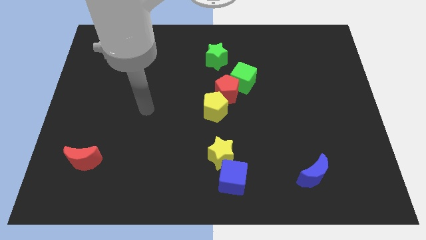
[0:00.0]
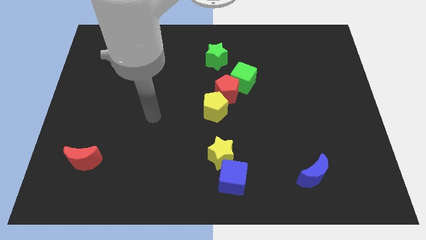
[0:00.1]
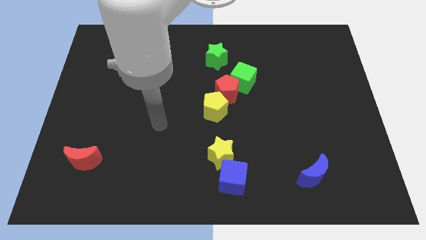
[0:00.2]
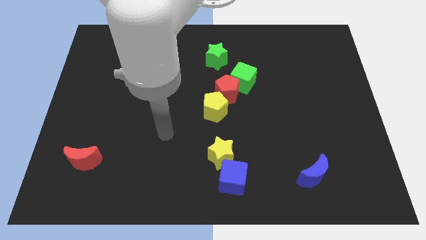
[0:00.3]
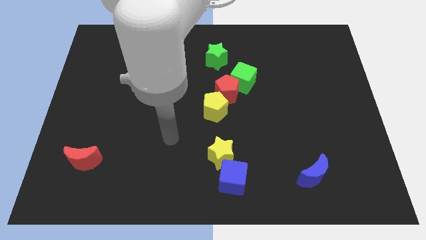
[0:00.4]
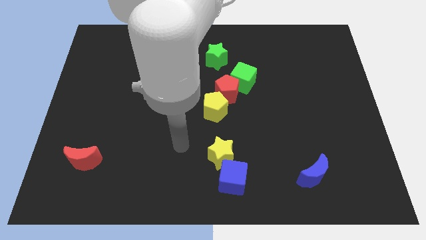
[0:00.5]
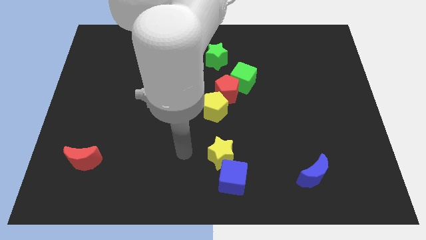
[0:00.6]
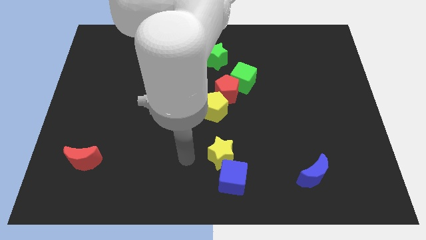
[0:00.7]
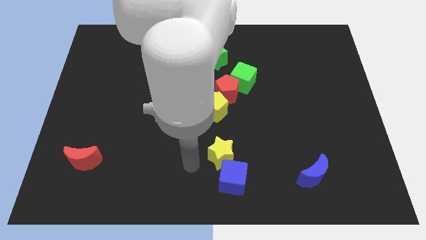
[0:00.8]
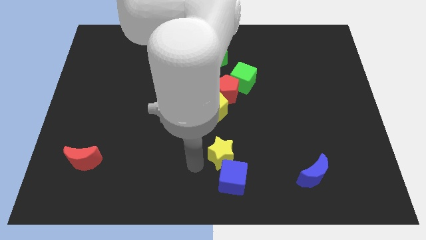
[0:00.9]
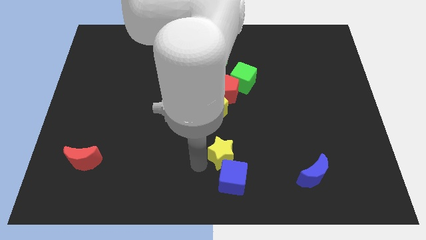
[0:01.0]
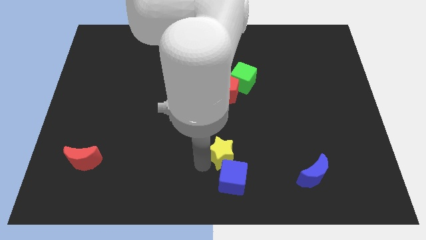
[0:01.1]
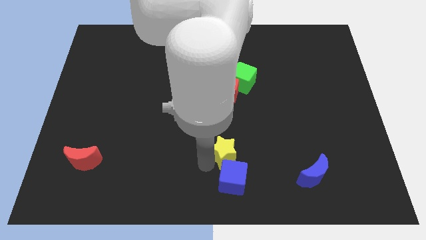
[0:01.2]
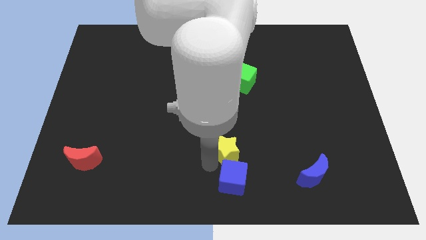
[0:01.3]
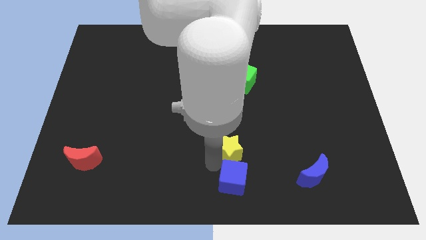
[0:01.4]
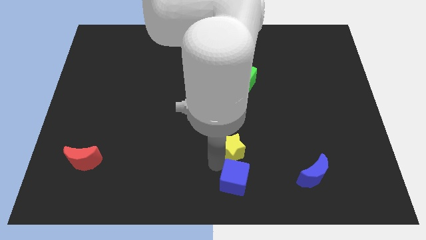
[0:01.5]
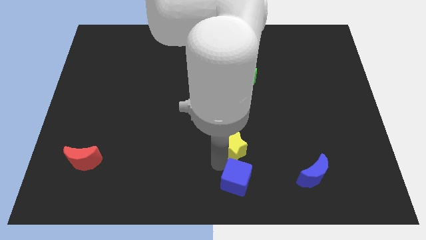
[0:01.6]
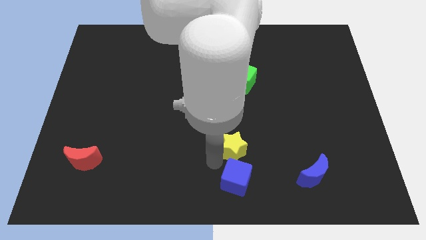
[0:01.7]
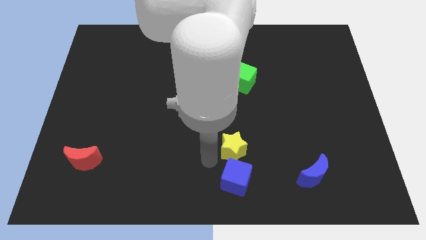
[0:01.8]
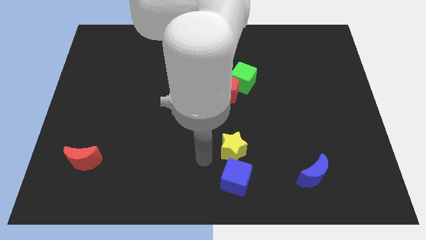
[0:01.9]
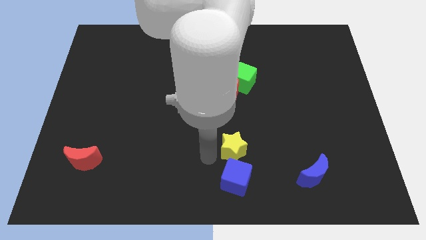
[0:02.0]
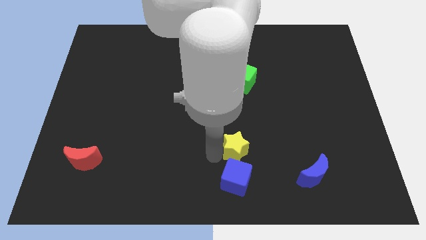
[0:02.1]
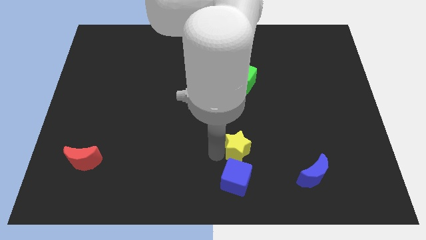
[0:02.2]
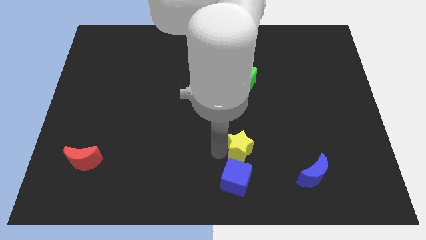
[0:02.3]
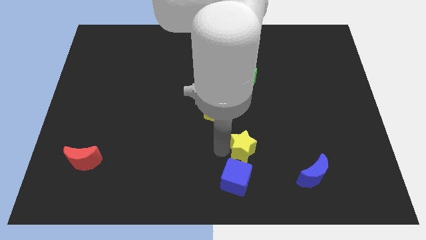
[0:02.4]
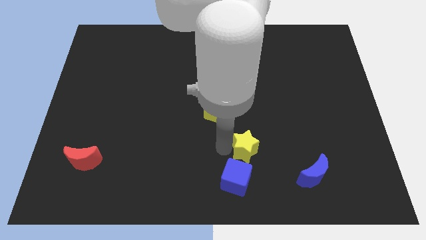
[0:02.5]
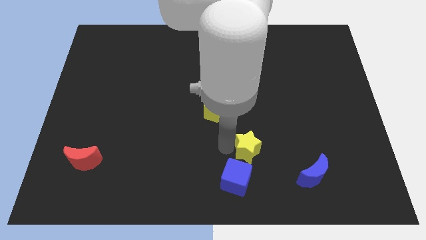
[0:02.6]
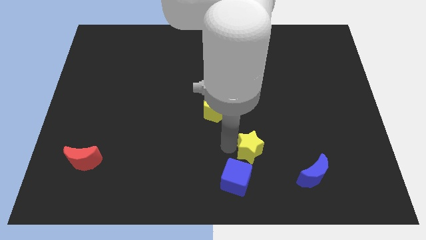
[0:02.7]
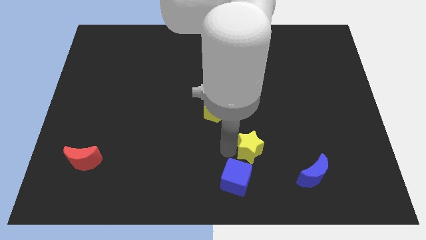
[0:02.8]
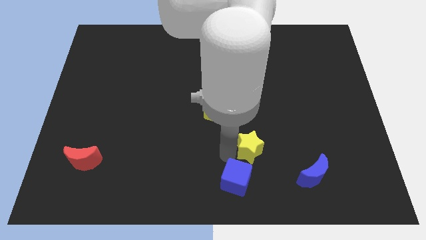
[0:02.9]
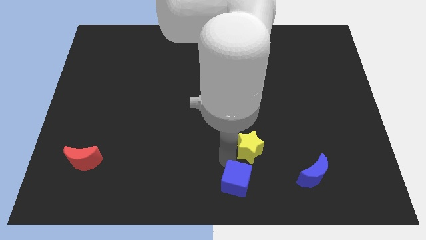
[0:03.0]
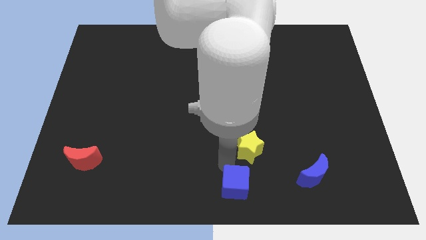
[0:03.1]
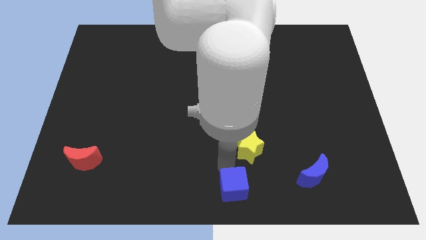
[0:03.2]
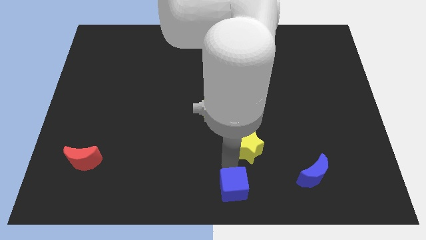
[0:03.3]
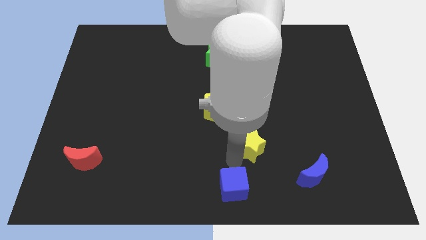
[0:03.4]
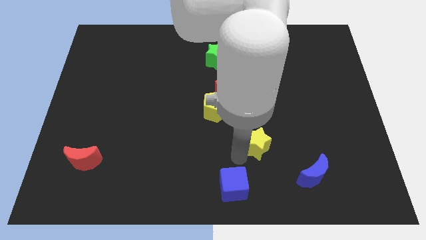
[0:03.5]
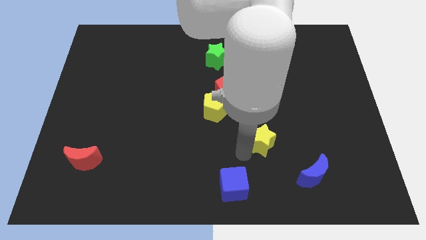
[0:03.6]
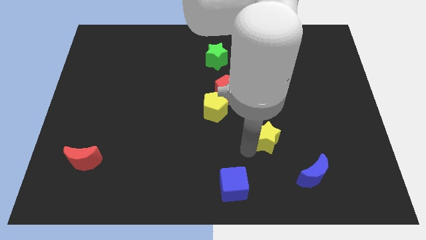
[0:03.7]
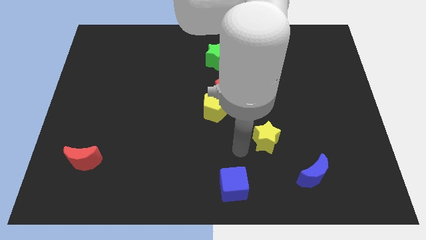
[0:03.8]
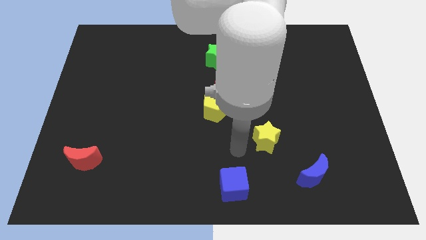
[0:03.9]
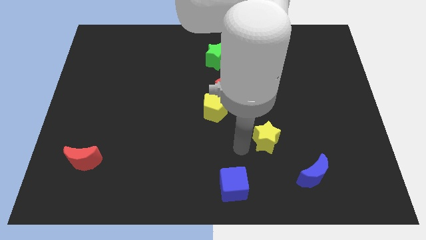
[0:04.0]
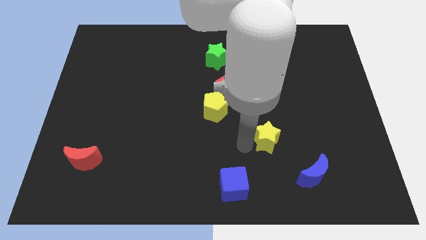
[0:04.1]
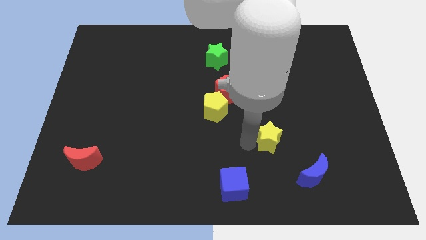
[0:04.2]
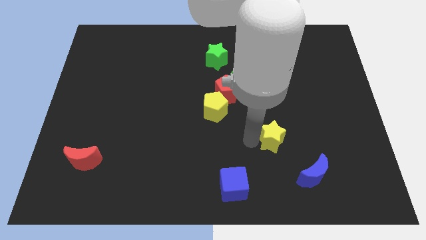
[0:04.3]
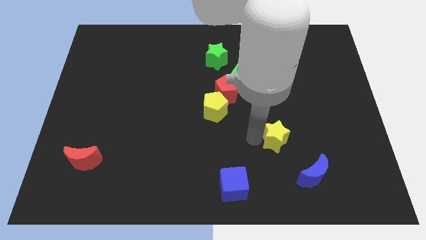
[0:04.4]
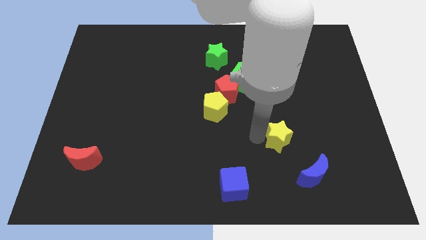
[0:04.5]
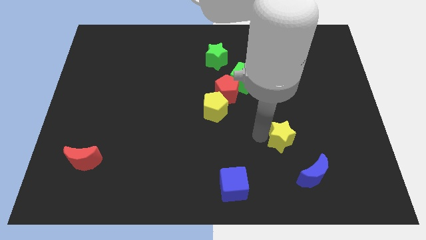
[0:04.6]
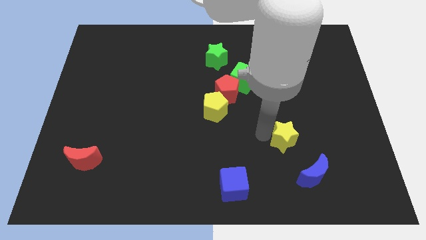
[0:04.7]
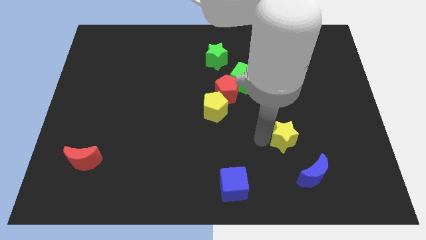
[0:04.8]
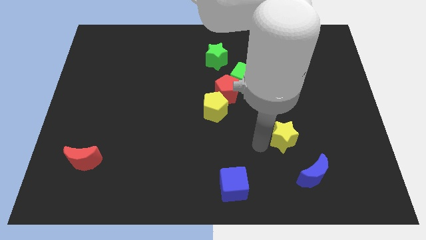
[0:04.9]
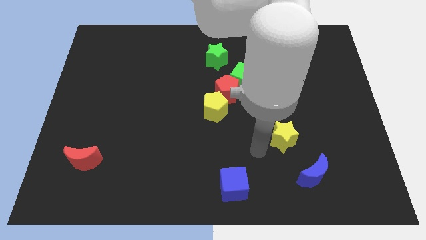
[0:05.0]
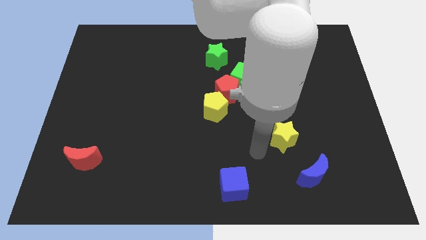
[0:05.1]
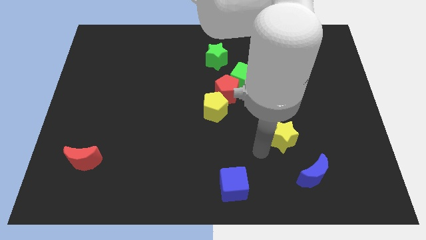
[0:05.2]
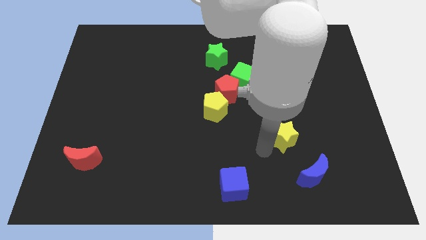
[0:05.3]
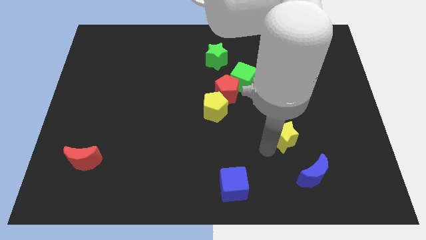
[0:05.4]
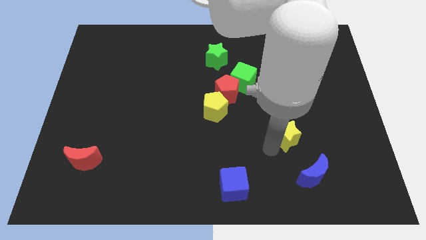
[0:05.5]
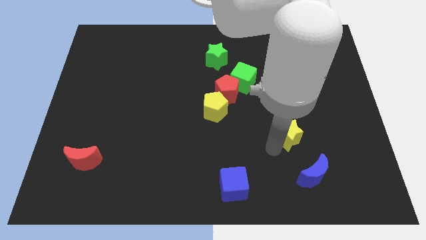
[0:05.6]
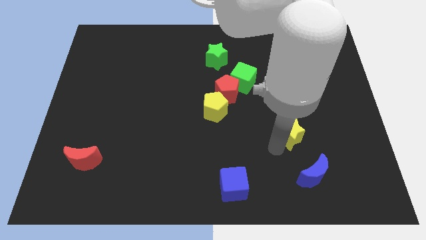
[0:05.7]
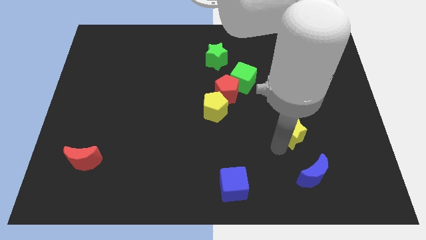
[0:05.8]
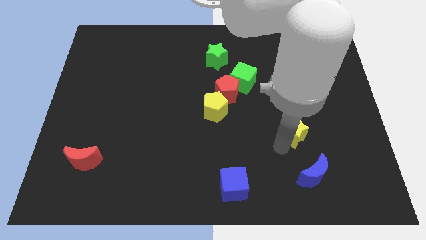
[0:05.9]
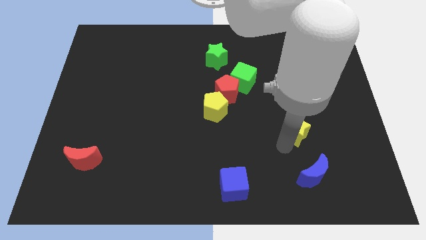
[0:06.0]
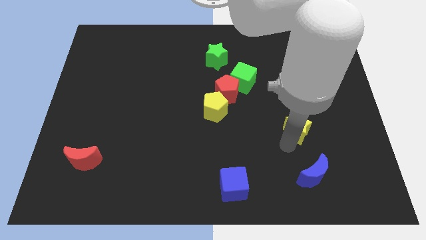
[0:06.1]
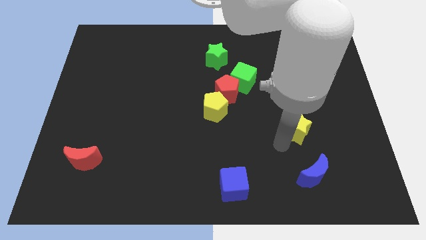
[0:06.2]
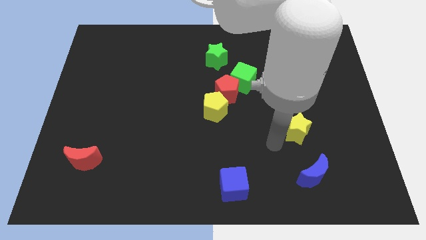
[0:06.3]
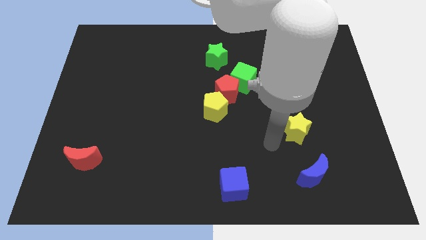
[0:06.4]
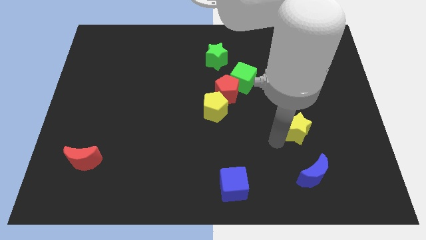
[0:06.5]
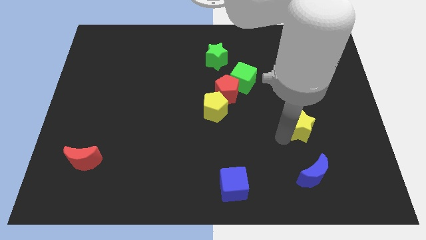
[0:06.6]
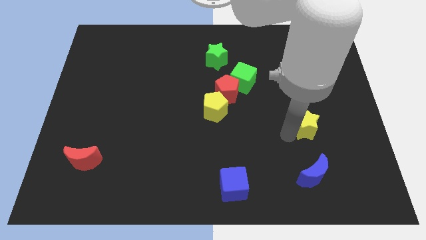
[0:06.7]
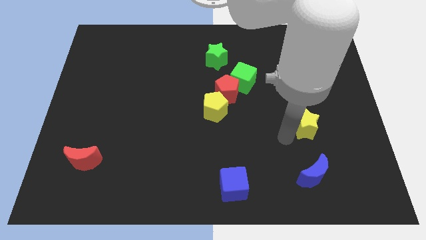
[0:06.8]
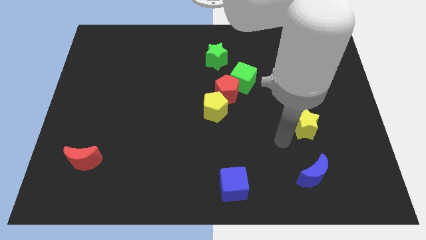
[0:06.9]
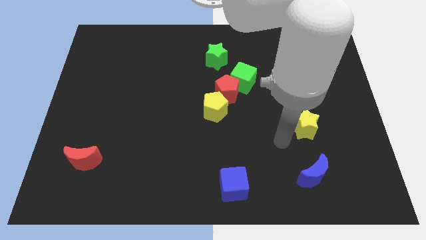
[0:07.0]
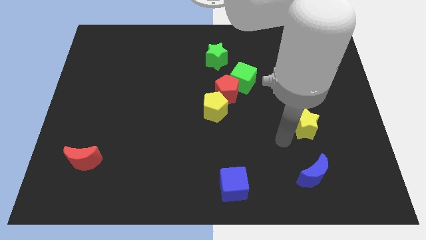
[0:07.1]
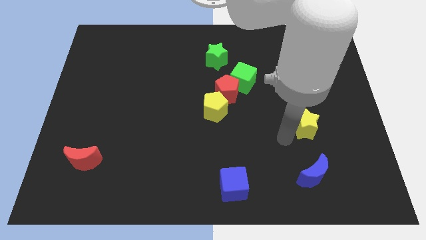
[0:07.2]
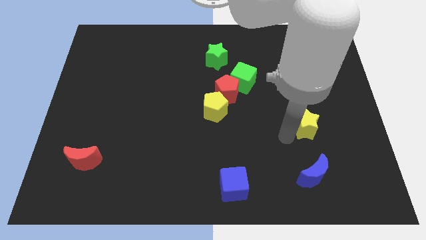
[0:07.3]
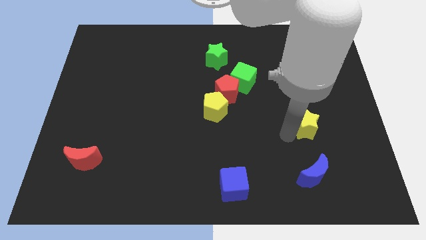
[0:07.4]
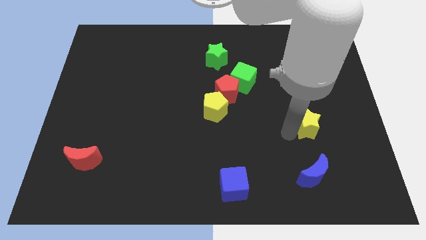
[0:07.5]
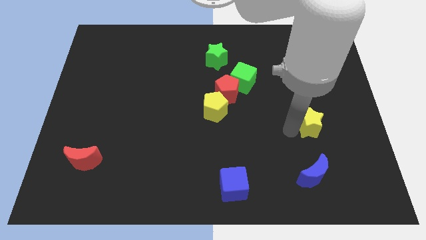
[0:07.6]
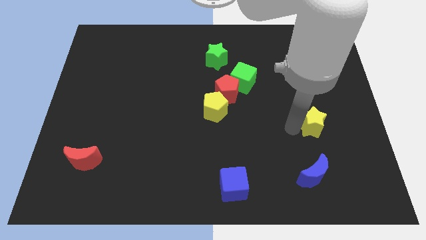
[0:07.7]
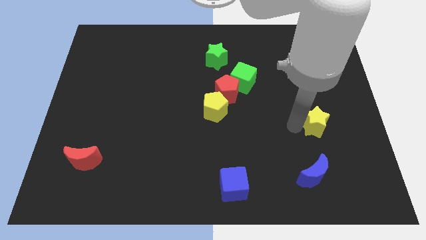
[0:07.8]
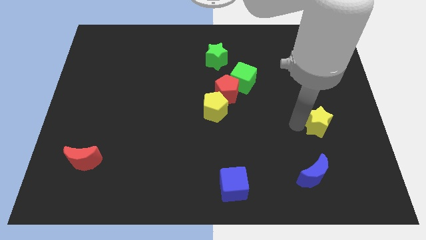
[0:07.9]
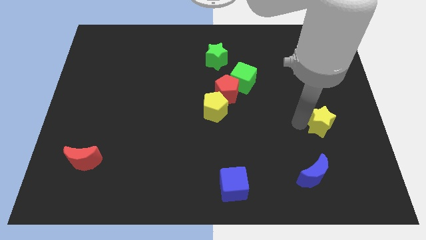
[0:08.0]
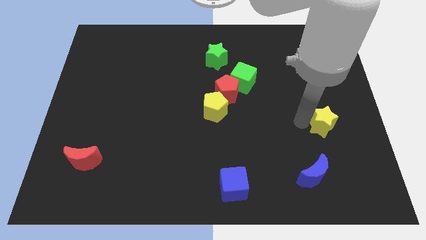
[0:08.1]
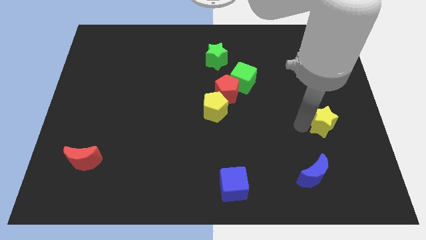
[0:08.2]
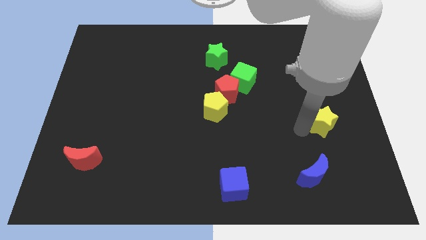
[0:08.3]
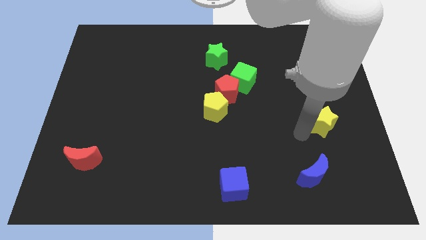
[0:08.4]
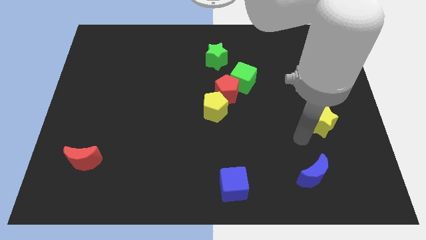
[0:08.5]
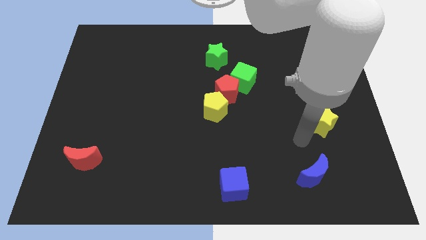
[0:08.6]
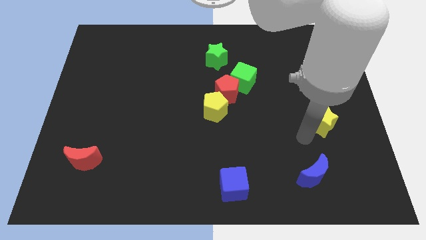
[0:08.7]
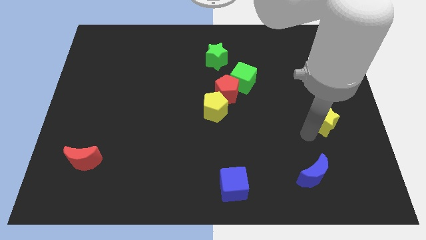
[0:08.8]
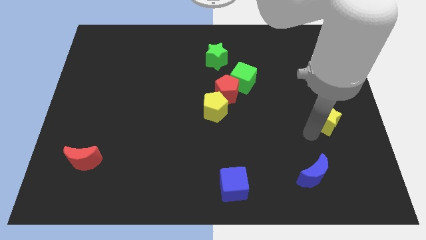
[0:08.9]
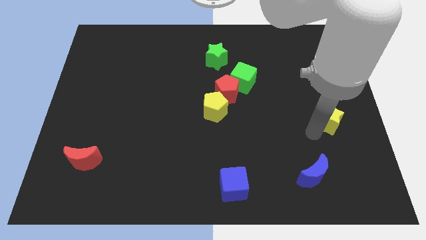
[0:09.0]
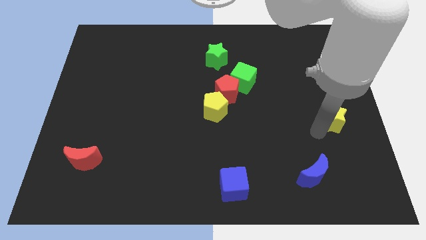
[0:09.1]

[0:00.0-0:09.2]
put the yellow star to the right side
